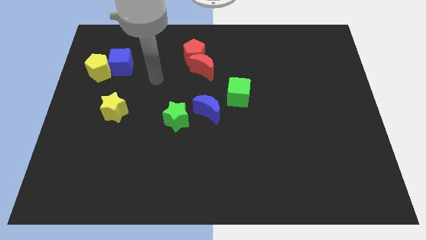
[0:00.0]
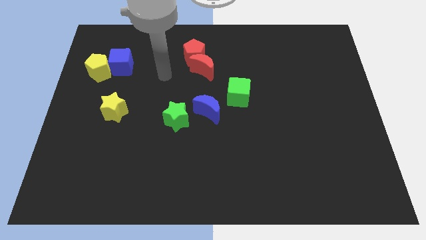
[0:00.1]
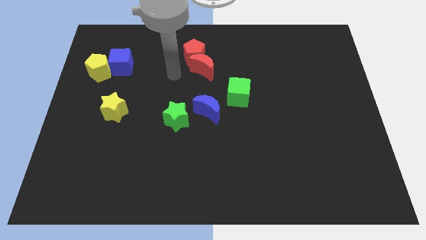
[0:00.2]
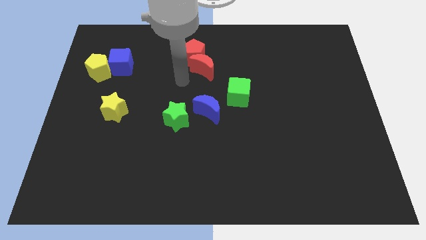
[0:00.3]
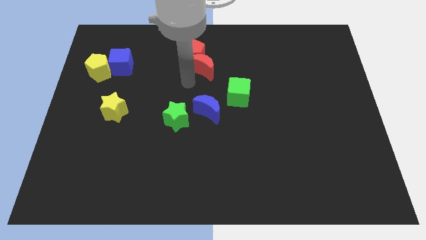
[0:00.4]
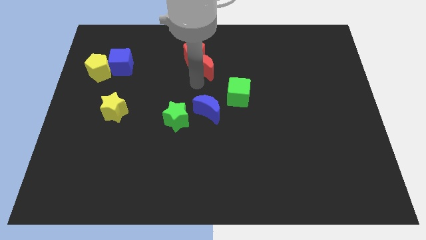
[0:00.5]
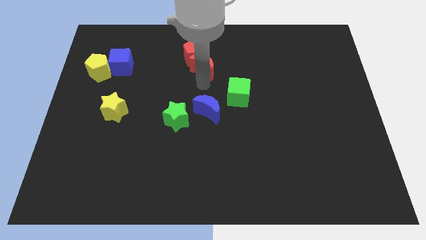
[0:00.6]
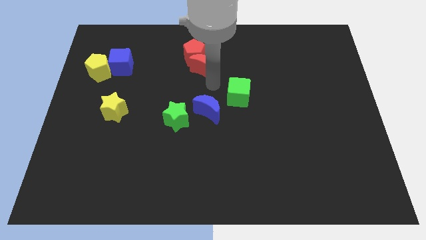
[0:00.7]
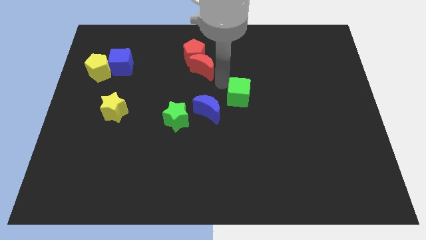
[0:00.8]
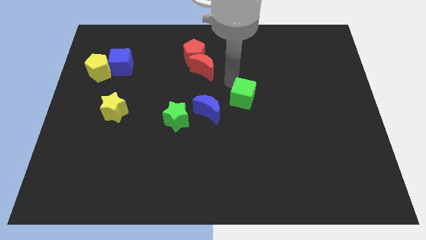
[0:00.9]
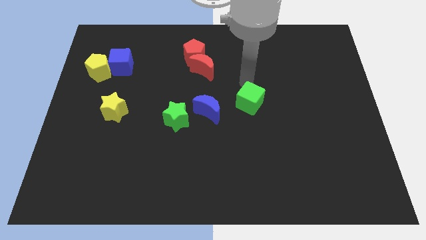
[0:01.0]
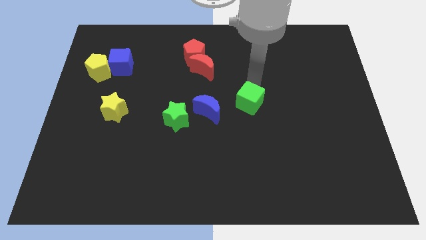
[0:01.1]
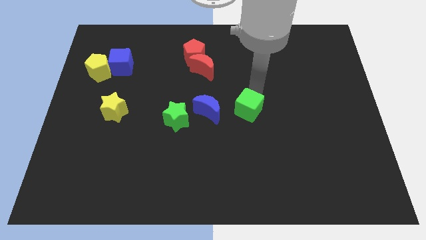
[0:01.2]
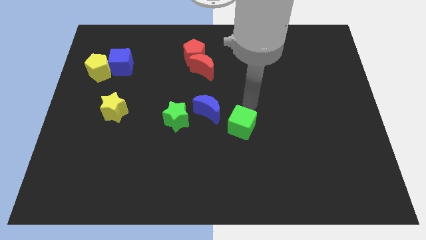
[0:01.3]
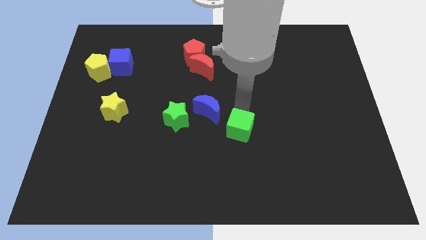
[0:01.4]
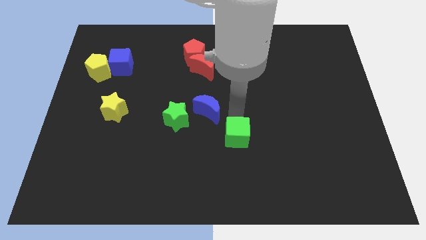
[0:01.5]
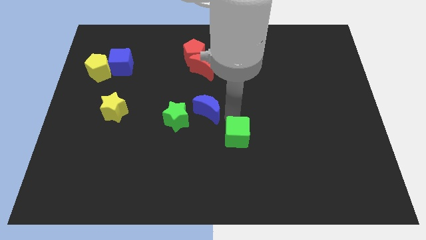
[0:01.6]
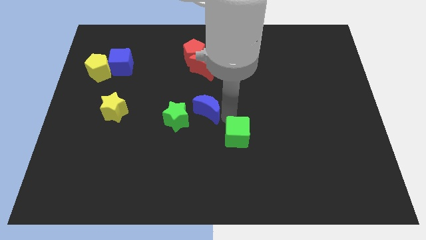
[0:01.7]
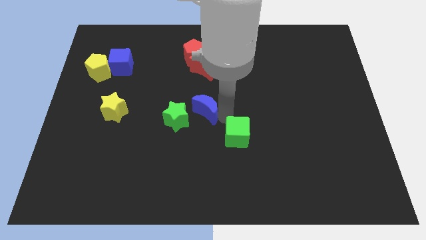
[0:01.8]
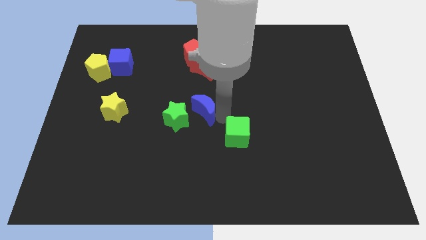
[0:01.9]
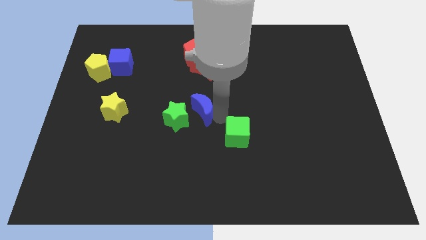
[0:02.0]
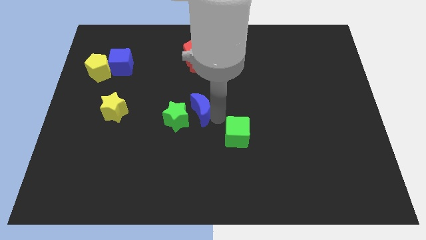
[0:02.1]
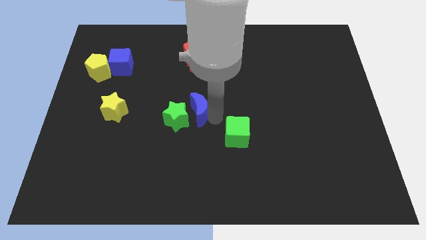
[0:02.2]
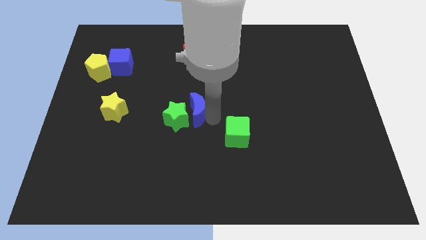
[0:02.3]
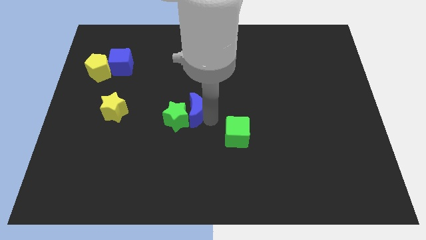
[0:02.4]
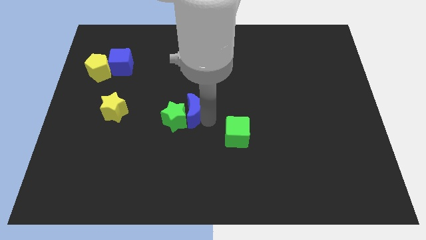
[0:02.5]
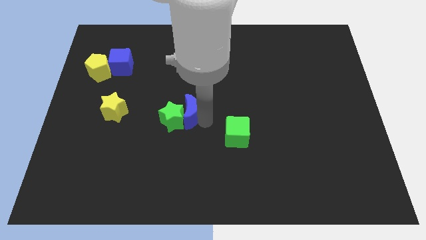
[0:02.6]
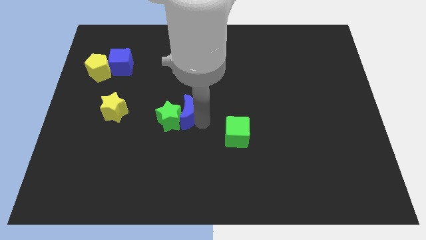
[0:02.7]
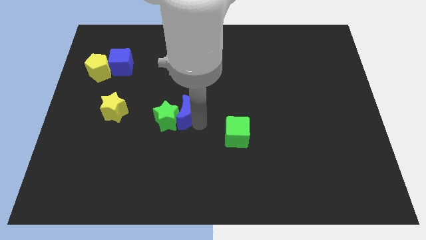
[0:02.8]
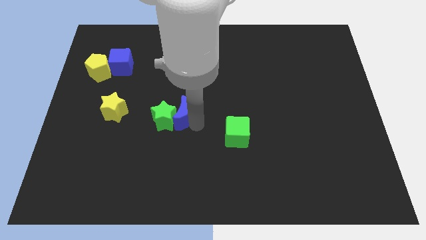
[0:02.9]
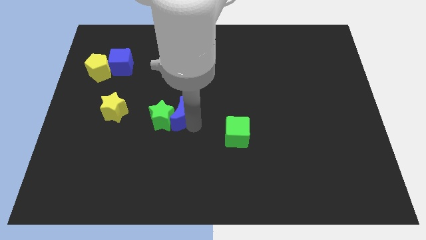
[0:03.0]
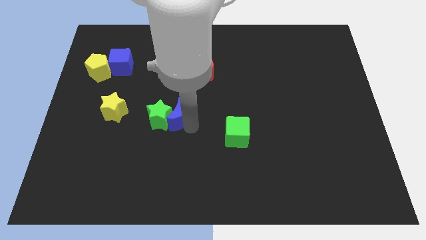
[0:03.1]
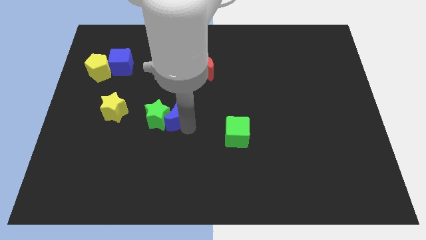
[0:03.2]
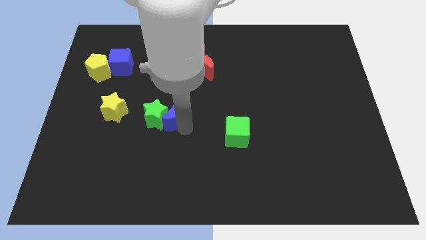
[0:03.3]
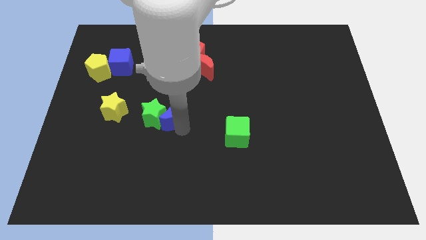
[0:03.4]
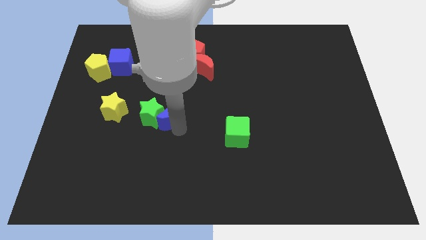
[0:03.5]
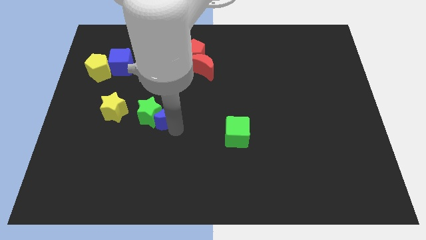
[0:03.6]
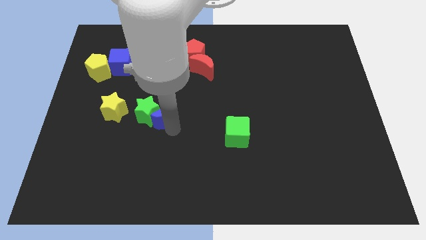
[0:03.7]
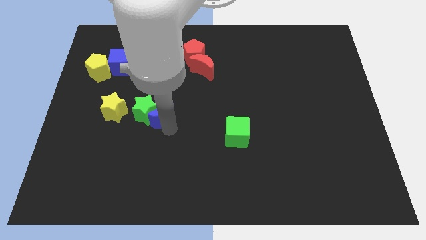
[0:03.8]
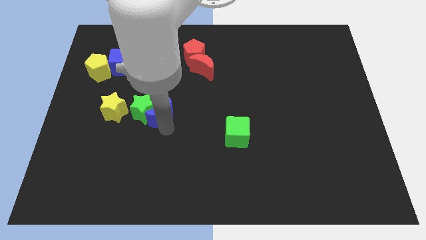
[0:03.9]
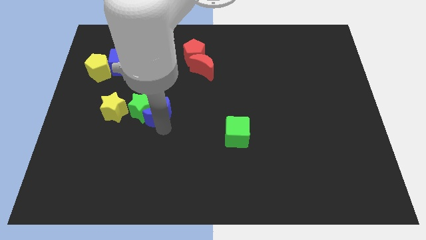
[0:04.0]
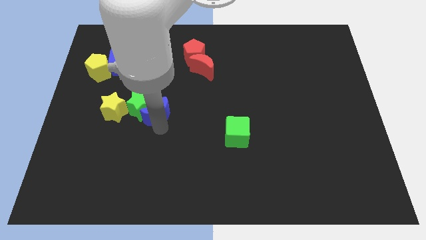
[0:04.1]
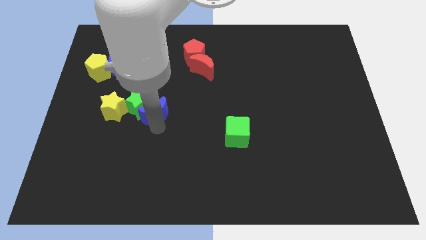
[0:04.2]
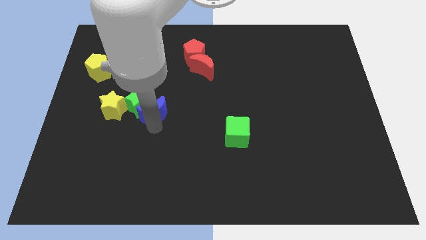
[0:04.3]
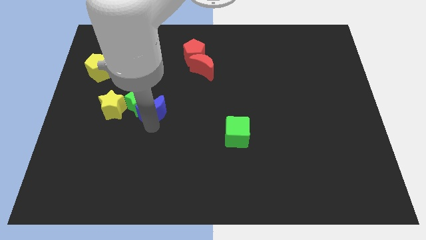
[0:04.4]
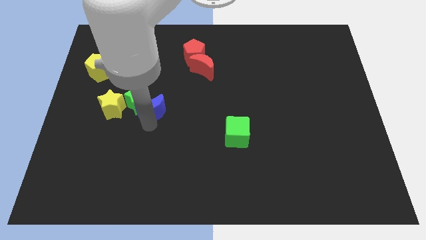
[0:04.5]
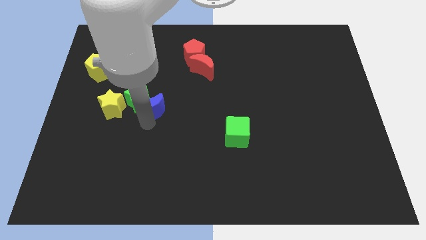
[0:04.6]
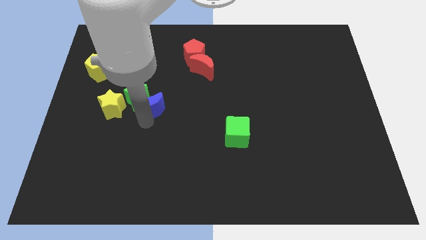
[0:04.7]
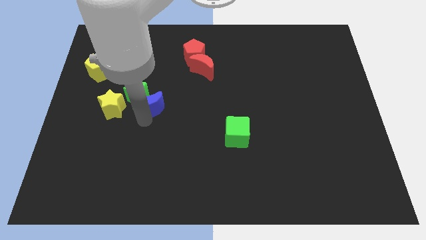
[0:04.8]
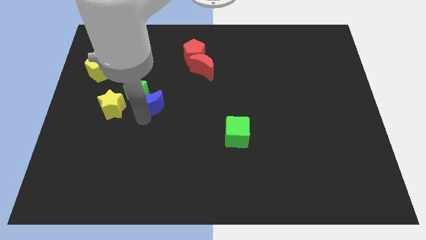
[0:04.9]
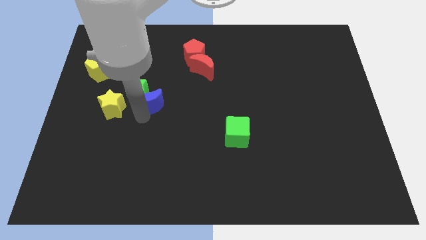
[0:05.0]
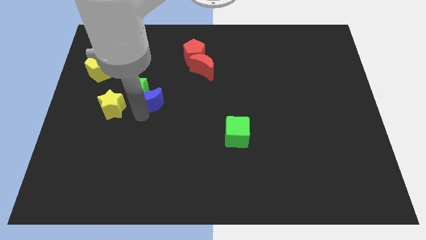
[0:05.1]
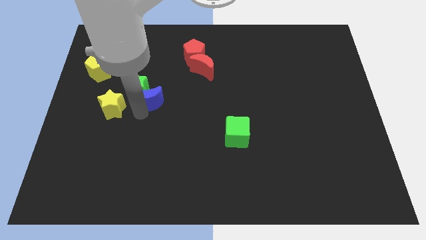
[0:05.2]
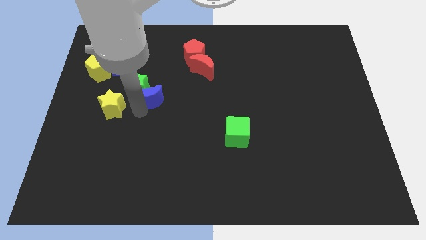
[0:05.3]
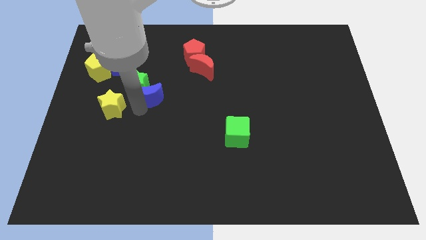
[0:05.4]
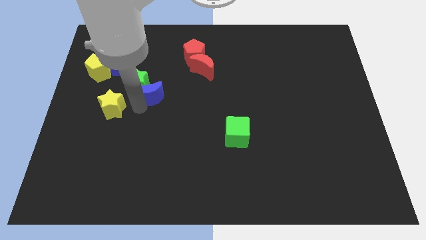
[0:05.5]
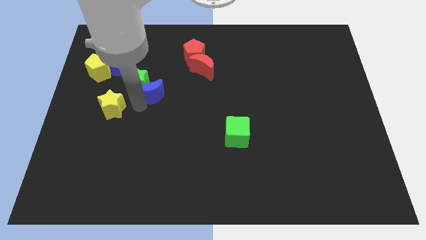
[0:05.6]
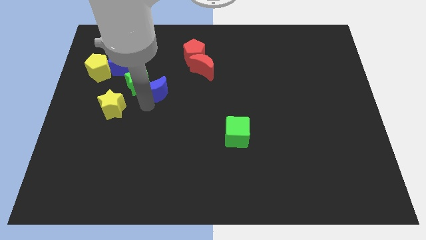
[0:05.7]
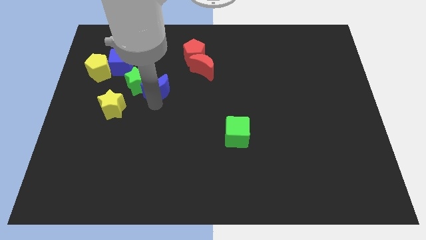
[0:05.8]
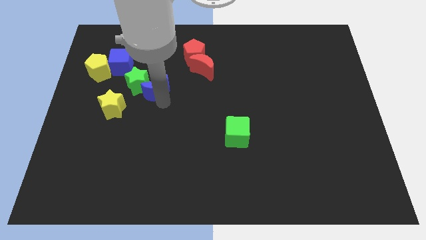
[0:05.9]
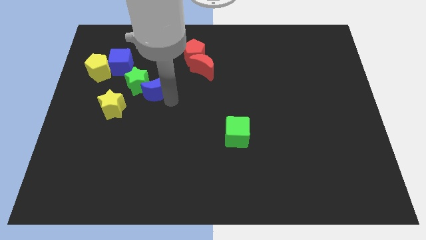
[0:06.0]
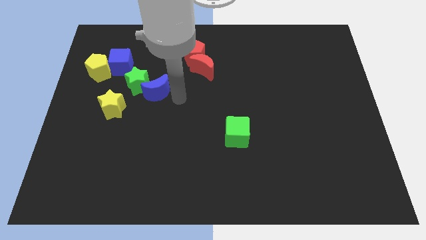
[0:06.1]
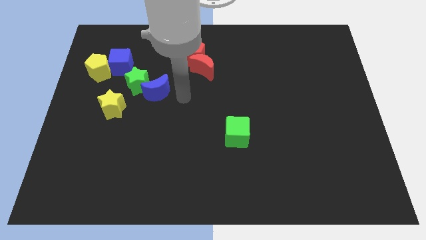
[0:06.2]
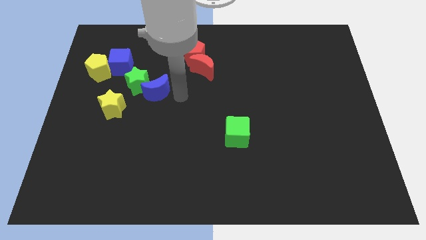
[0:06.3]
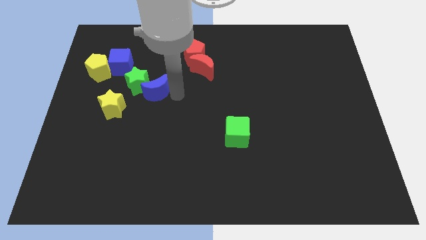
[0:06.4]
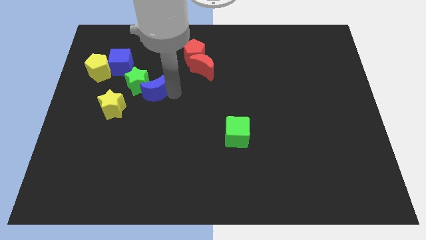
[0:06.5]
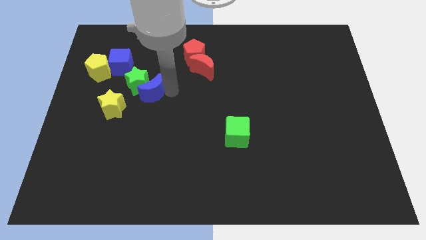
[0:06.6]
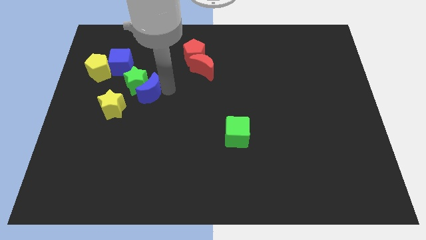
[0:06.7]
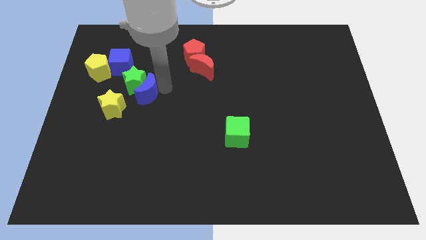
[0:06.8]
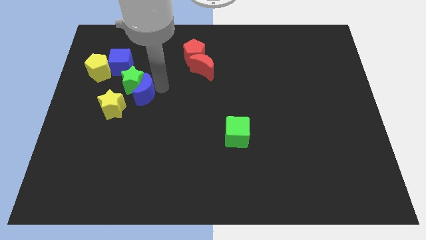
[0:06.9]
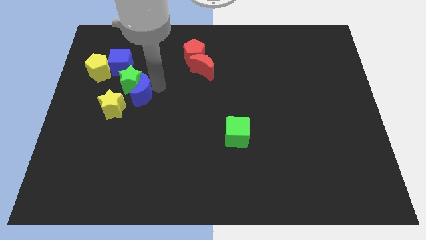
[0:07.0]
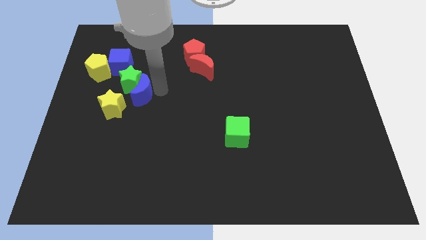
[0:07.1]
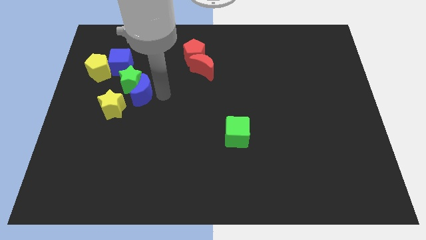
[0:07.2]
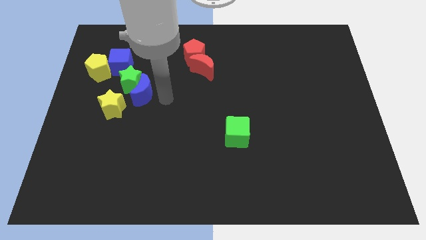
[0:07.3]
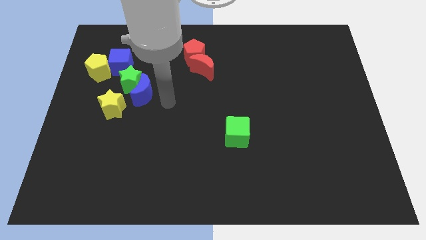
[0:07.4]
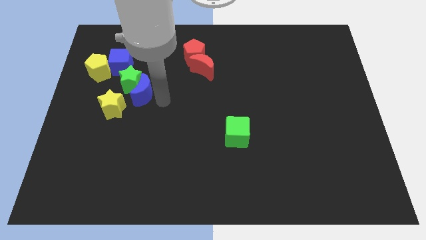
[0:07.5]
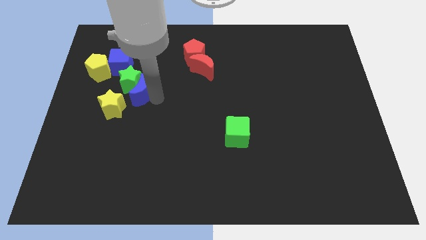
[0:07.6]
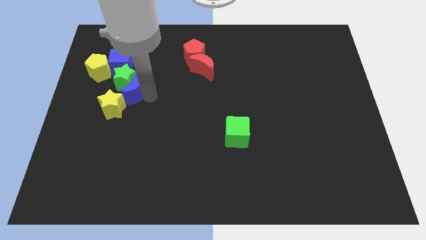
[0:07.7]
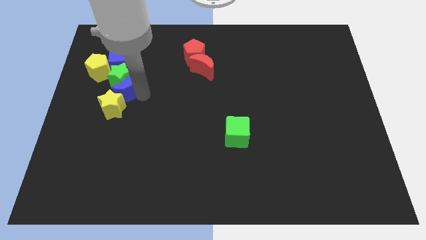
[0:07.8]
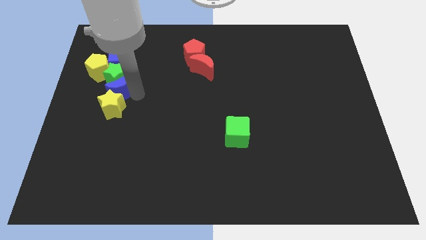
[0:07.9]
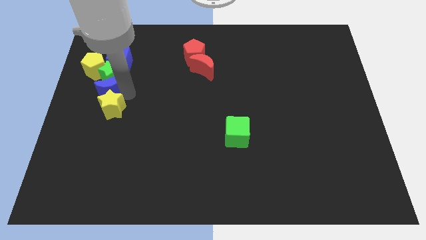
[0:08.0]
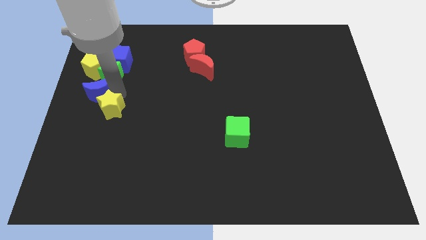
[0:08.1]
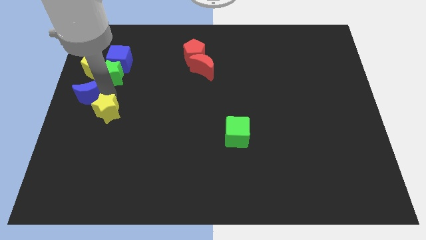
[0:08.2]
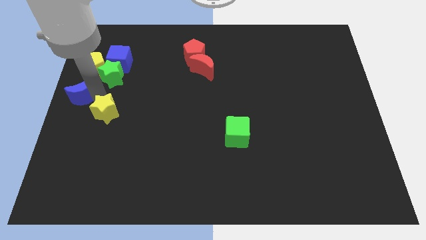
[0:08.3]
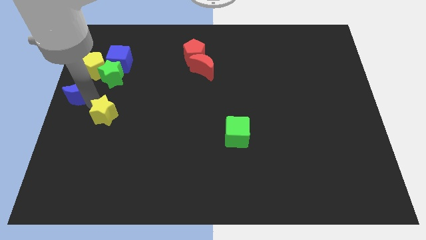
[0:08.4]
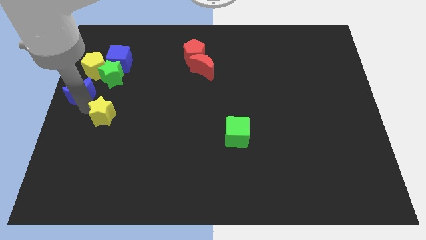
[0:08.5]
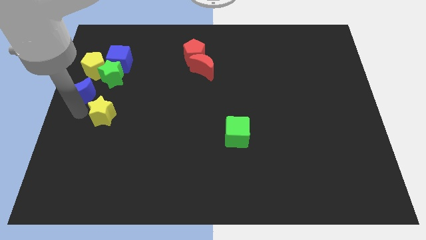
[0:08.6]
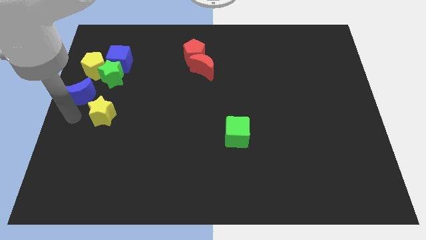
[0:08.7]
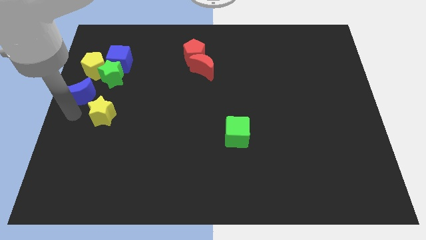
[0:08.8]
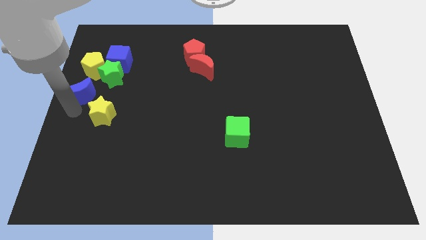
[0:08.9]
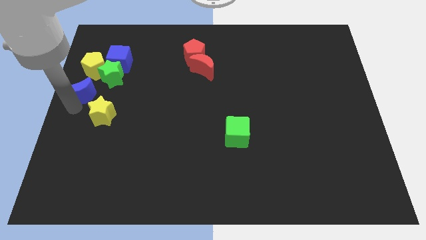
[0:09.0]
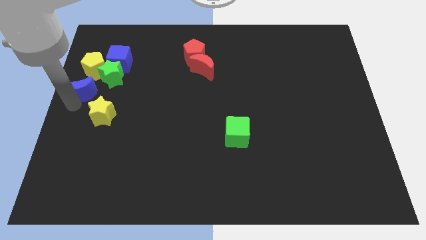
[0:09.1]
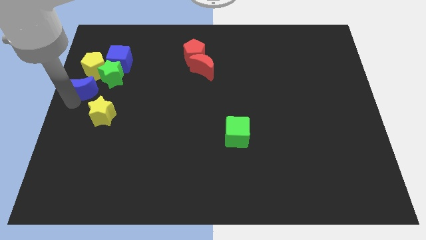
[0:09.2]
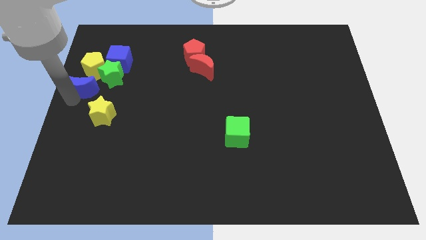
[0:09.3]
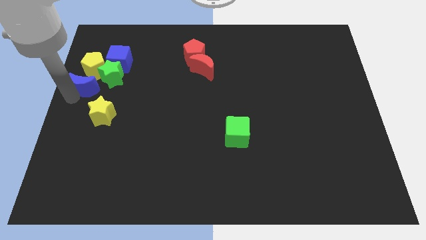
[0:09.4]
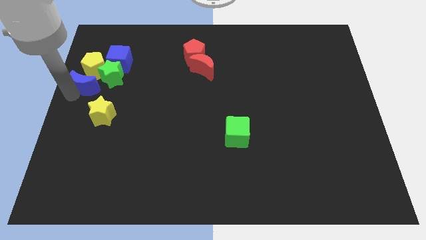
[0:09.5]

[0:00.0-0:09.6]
slide the blue moon close to the yellow pentagon
